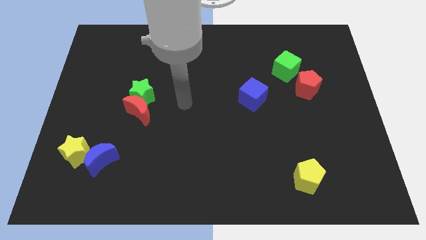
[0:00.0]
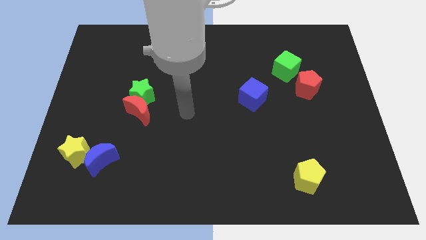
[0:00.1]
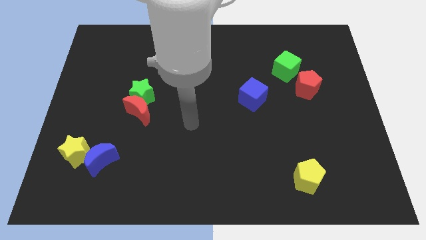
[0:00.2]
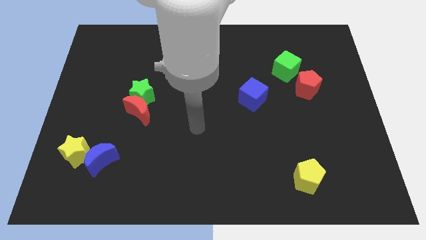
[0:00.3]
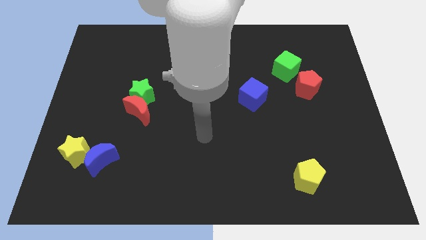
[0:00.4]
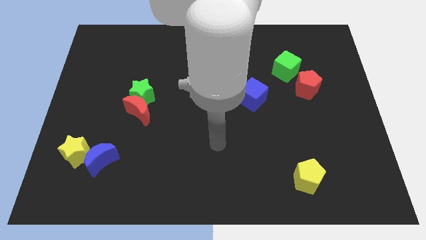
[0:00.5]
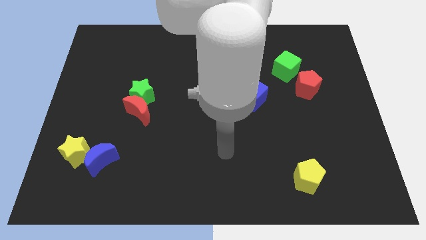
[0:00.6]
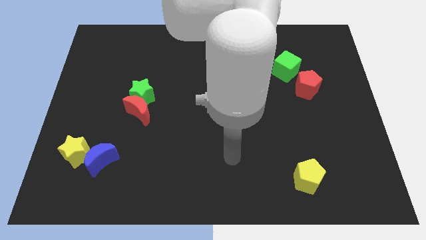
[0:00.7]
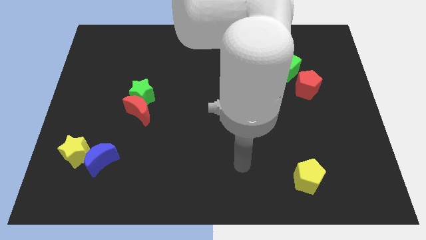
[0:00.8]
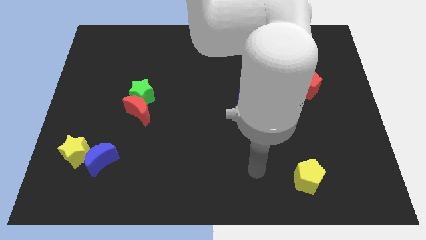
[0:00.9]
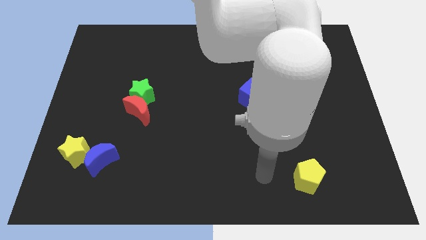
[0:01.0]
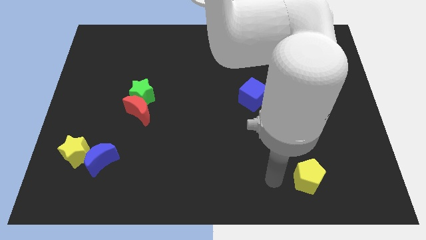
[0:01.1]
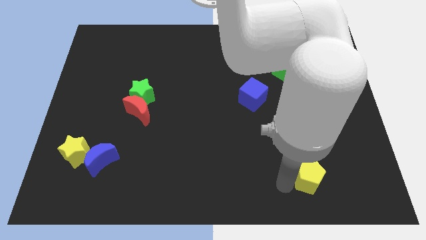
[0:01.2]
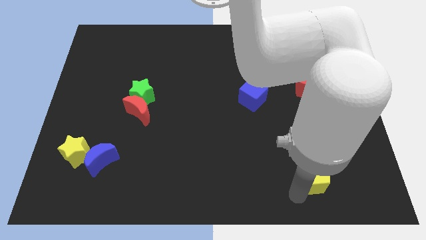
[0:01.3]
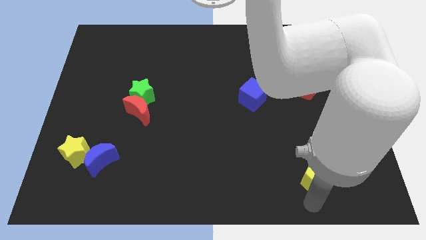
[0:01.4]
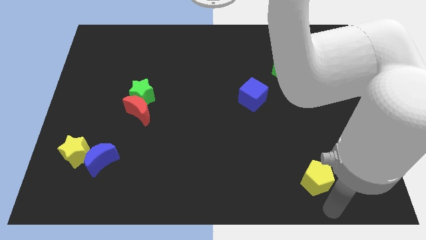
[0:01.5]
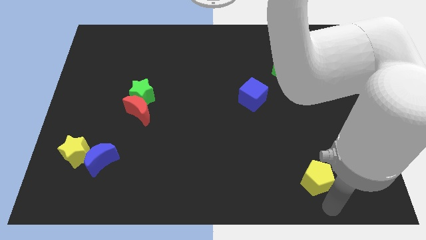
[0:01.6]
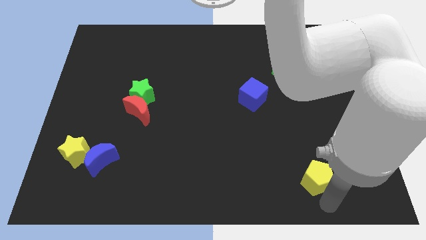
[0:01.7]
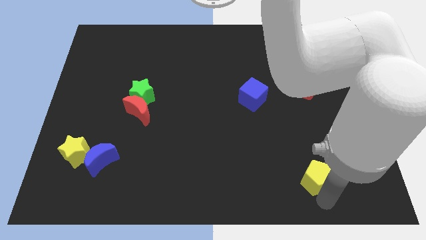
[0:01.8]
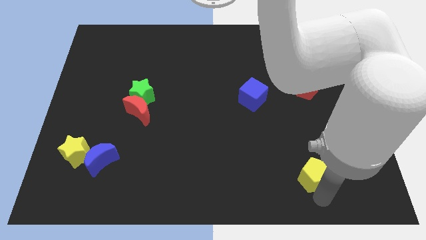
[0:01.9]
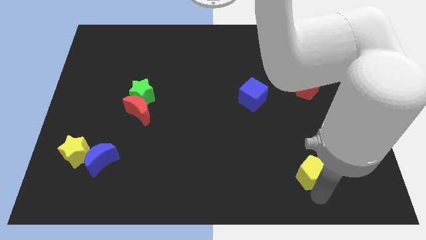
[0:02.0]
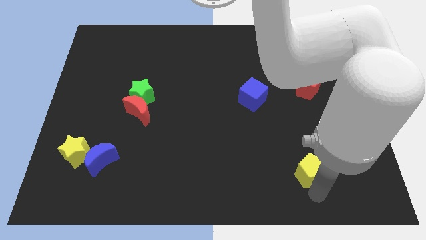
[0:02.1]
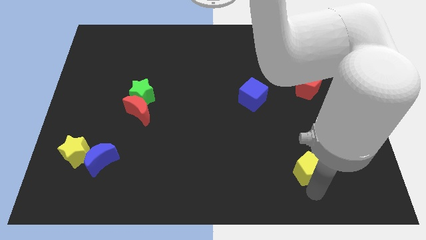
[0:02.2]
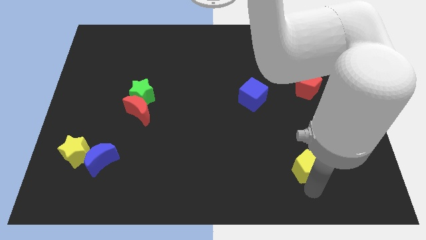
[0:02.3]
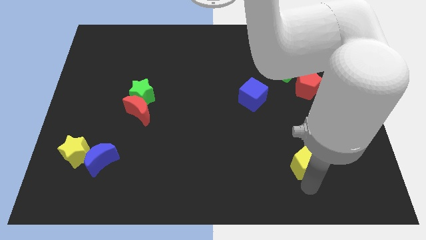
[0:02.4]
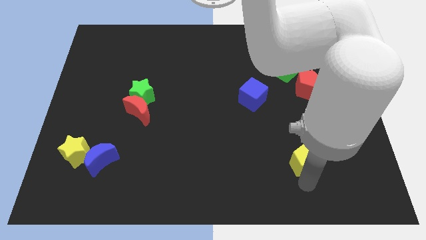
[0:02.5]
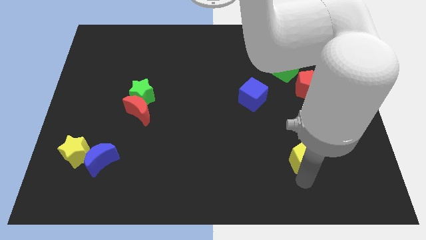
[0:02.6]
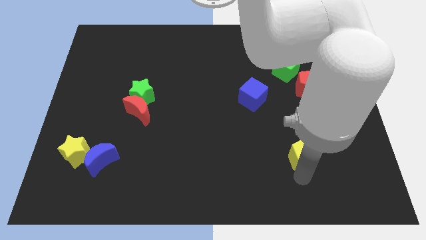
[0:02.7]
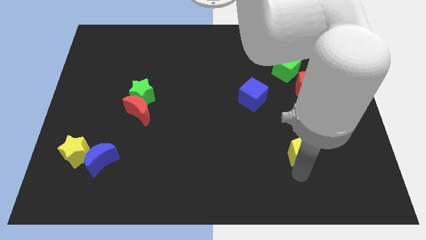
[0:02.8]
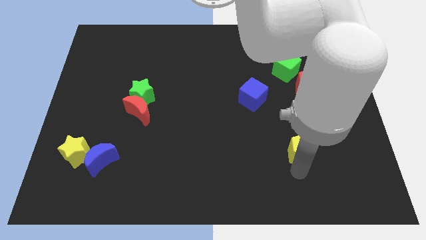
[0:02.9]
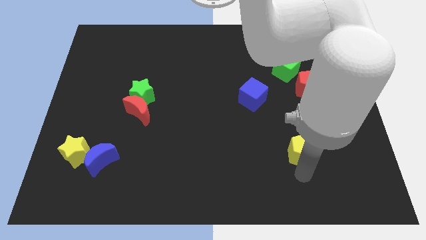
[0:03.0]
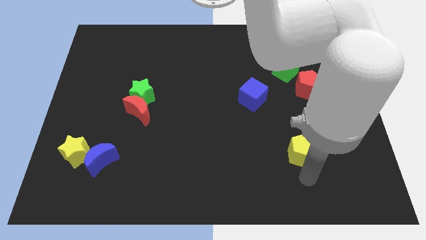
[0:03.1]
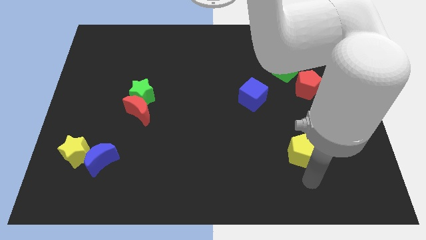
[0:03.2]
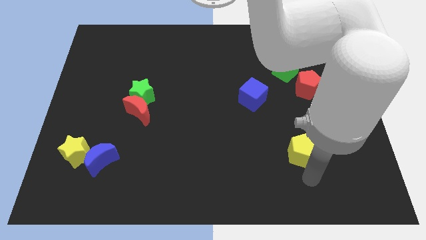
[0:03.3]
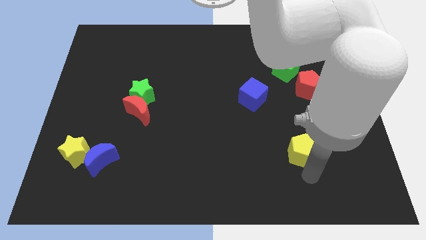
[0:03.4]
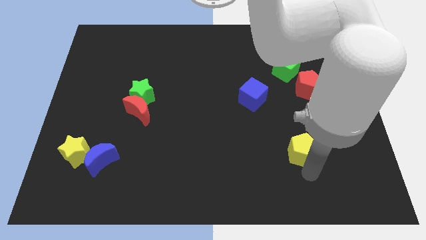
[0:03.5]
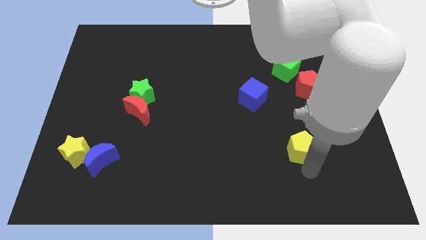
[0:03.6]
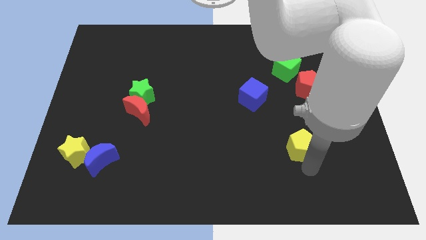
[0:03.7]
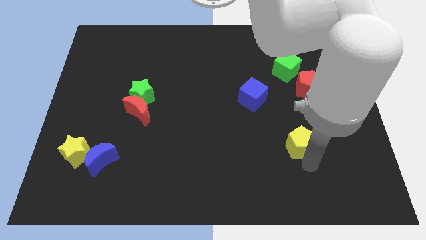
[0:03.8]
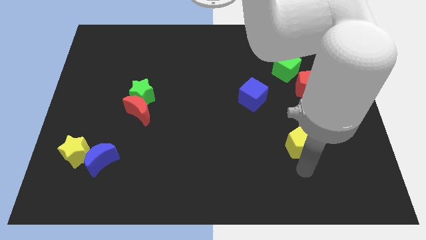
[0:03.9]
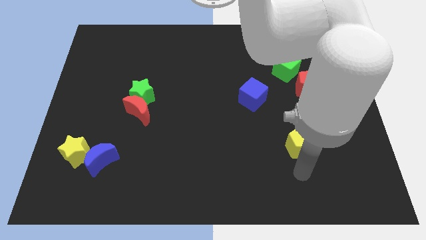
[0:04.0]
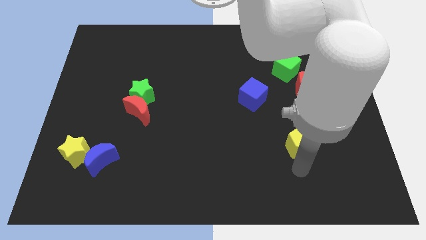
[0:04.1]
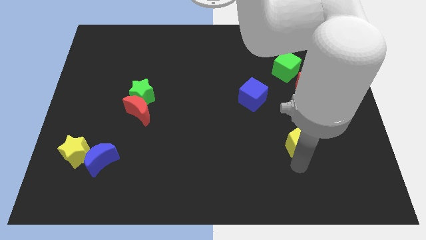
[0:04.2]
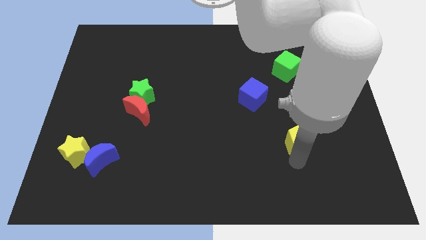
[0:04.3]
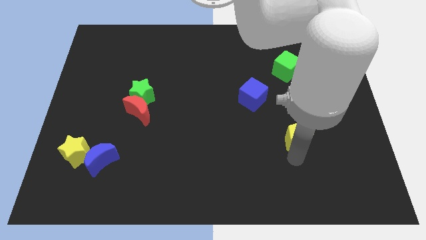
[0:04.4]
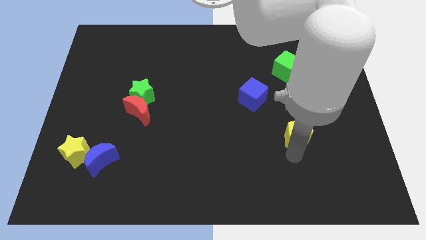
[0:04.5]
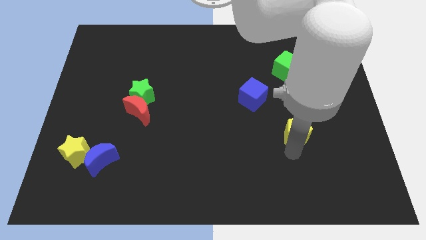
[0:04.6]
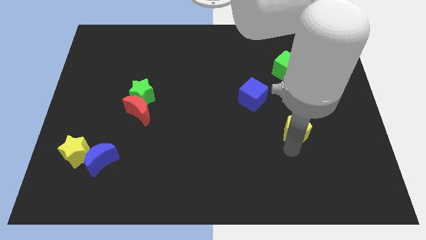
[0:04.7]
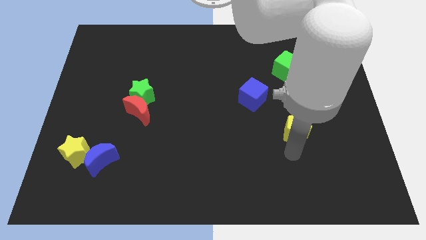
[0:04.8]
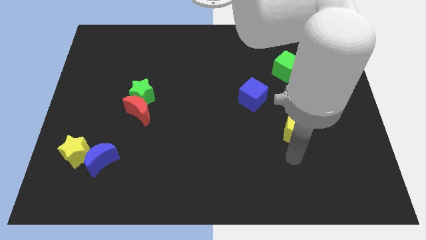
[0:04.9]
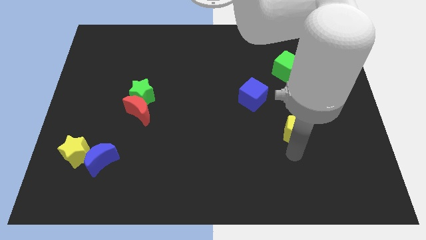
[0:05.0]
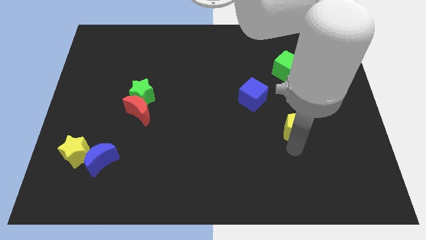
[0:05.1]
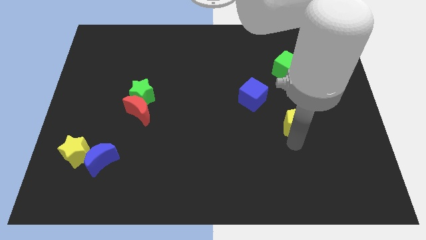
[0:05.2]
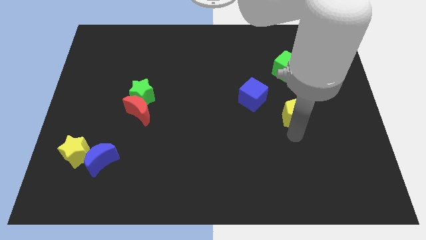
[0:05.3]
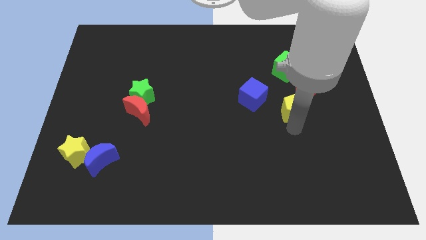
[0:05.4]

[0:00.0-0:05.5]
put the yellow pentagon to the right side of the blue cube

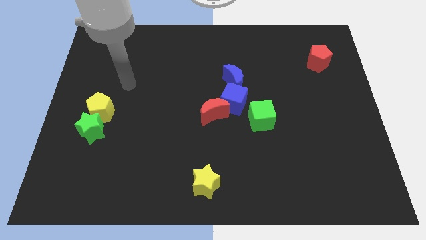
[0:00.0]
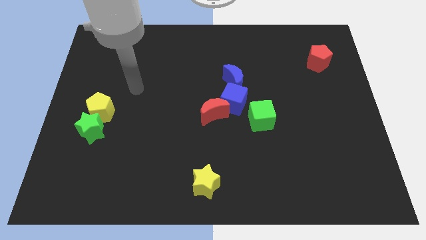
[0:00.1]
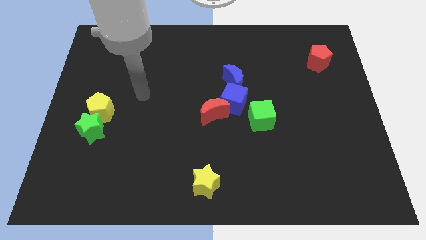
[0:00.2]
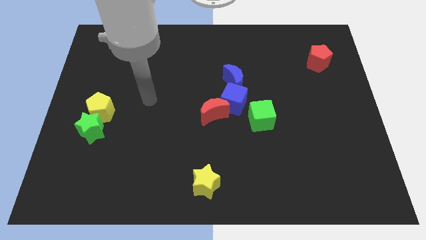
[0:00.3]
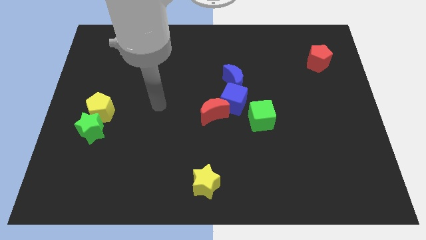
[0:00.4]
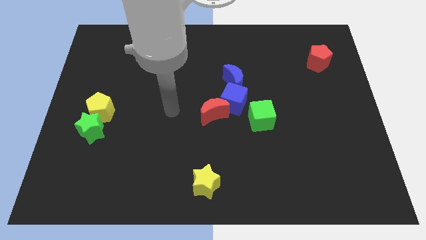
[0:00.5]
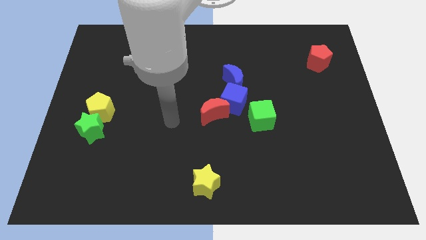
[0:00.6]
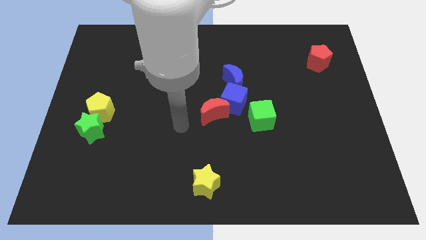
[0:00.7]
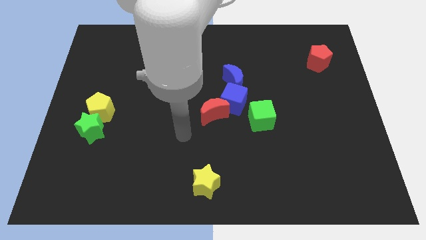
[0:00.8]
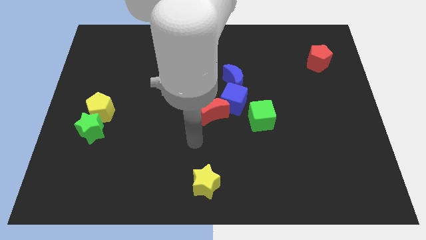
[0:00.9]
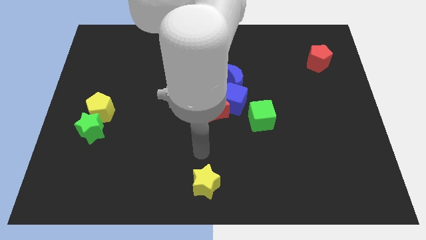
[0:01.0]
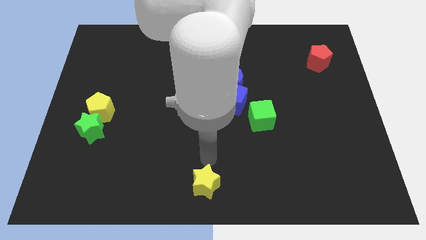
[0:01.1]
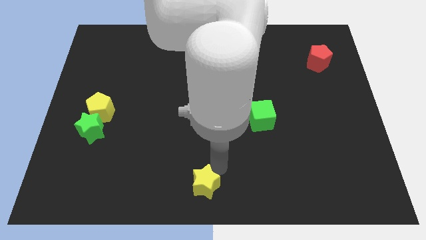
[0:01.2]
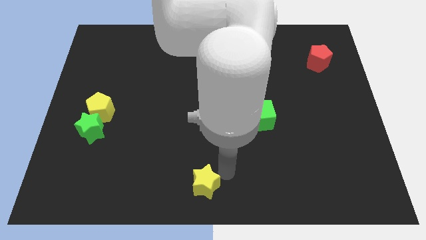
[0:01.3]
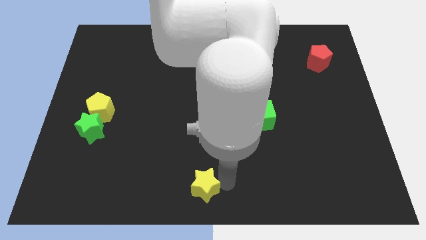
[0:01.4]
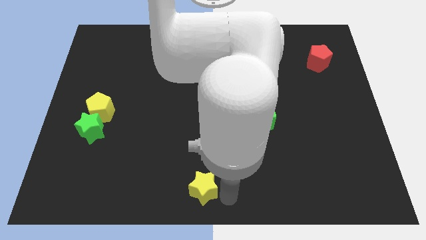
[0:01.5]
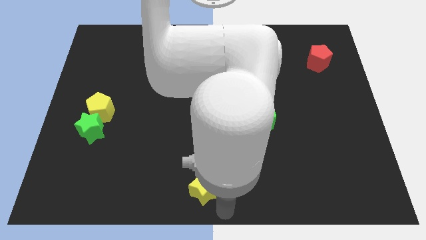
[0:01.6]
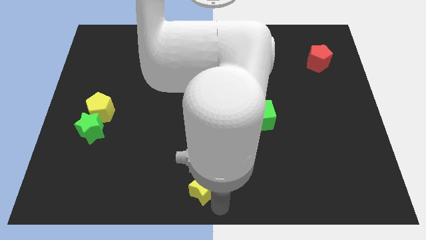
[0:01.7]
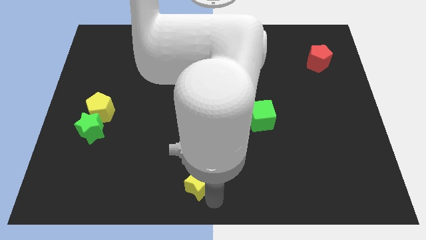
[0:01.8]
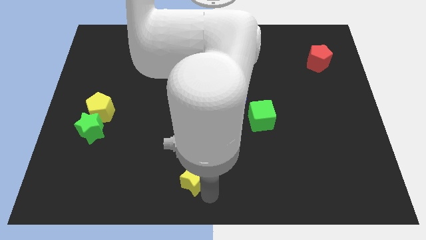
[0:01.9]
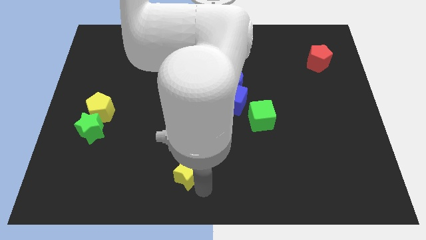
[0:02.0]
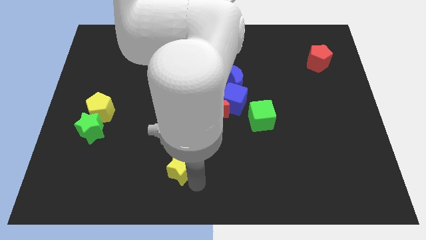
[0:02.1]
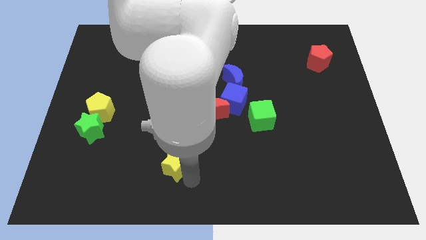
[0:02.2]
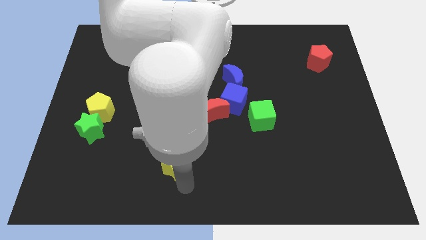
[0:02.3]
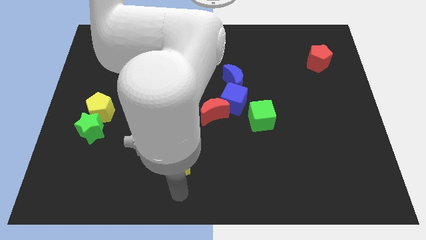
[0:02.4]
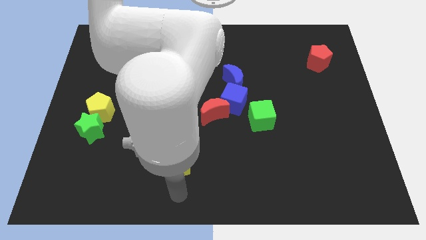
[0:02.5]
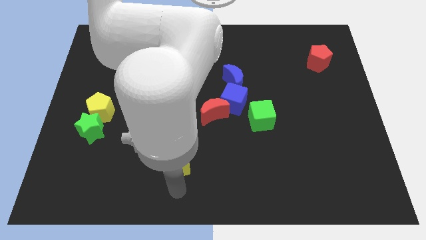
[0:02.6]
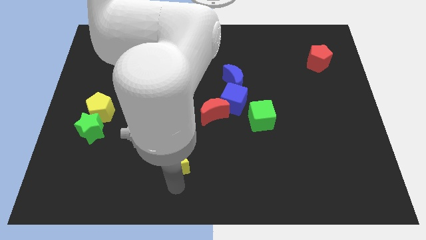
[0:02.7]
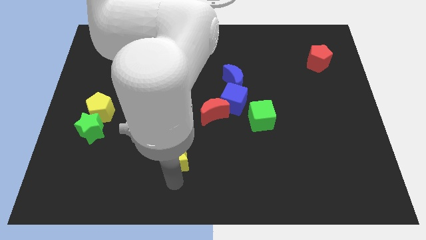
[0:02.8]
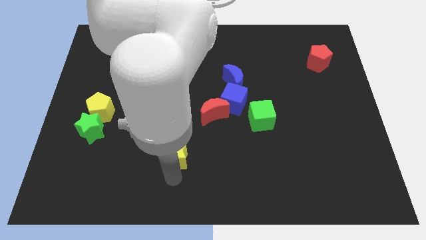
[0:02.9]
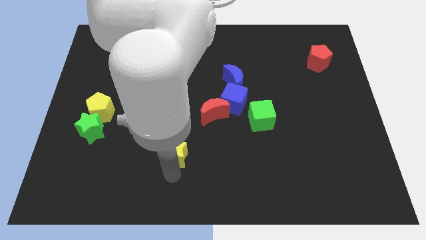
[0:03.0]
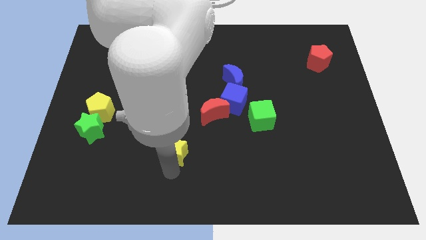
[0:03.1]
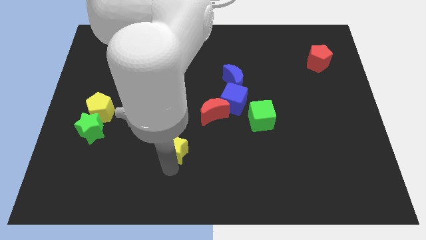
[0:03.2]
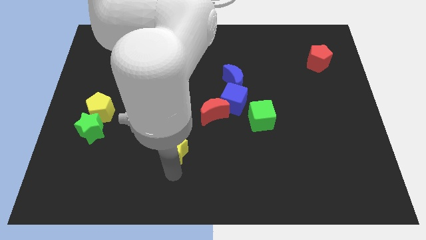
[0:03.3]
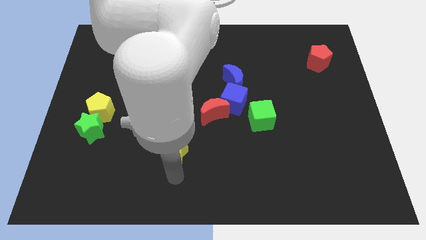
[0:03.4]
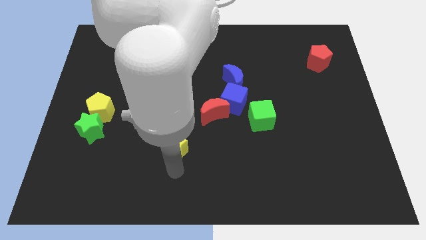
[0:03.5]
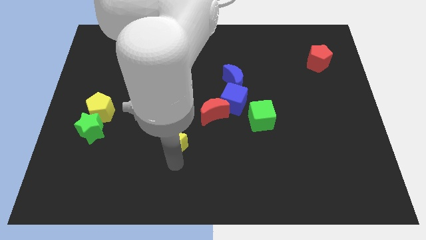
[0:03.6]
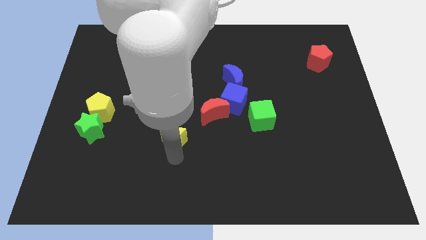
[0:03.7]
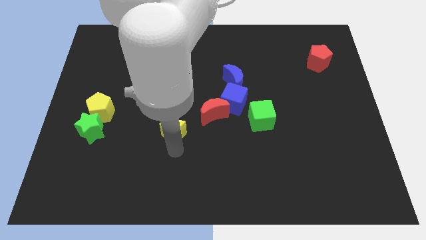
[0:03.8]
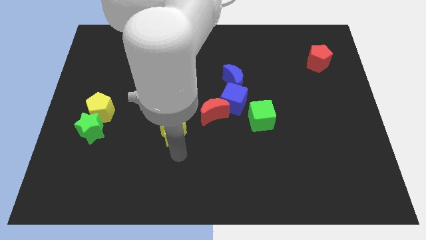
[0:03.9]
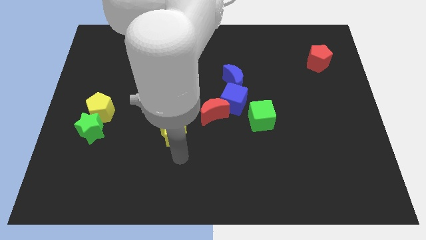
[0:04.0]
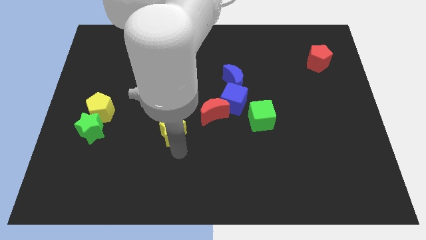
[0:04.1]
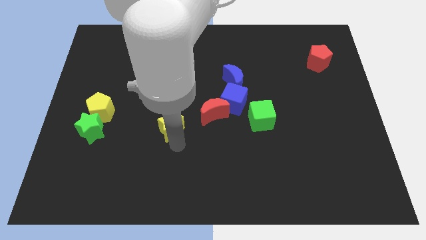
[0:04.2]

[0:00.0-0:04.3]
push the yellow star left of the red moon
